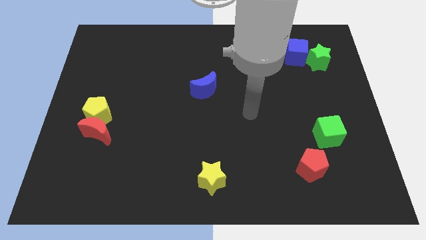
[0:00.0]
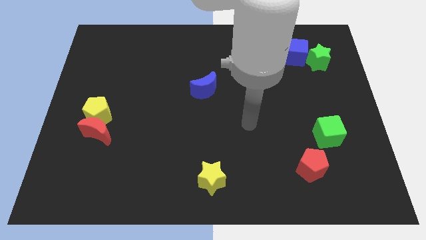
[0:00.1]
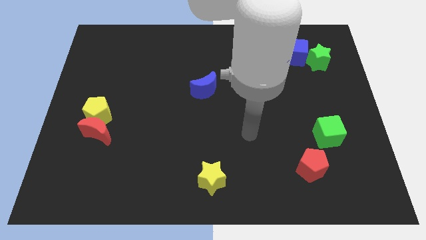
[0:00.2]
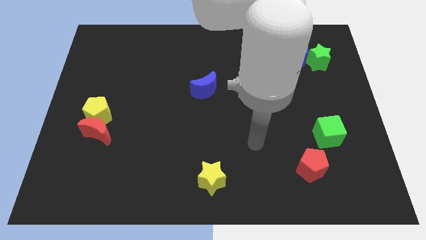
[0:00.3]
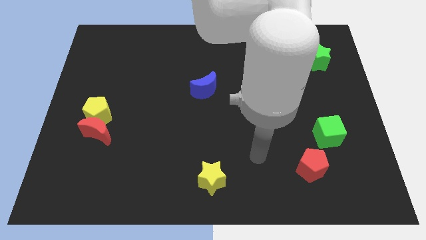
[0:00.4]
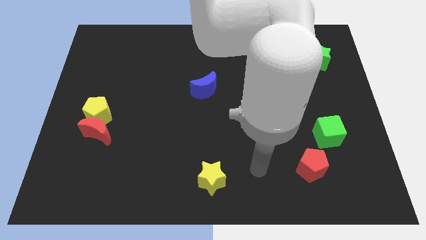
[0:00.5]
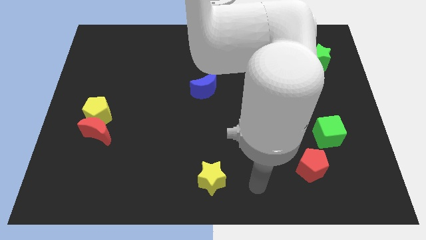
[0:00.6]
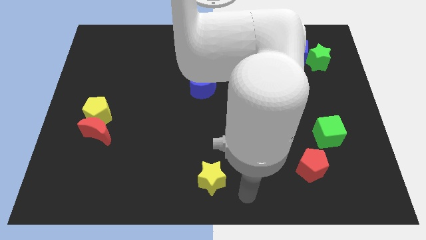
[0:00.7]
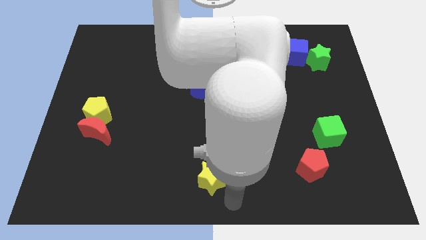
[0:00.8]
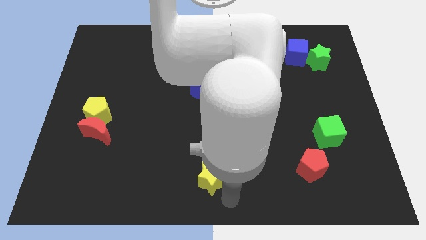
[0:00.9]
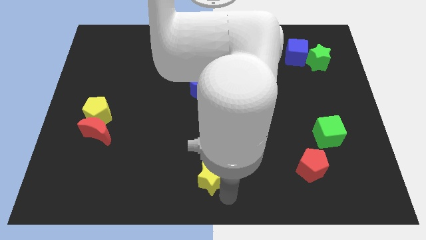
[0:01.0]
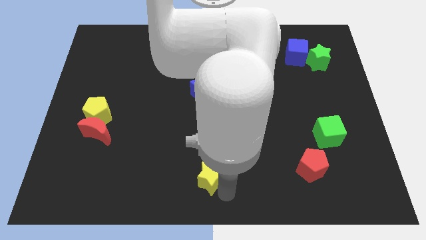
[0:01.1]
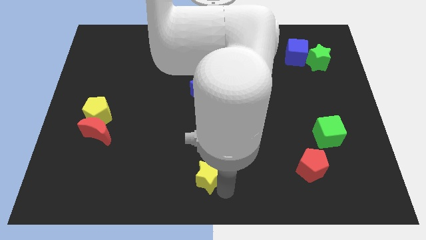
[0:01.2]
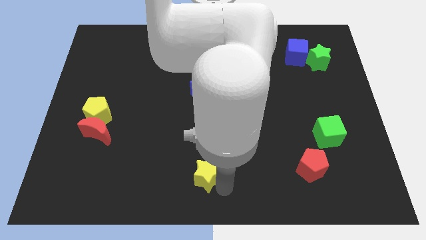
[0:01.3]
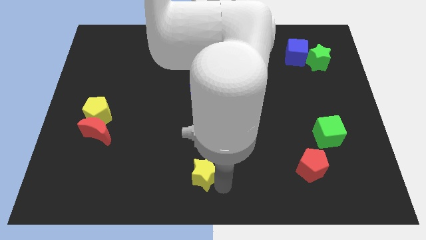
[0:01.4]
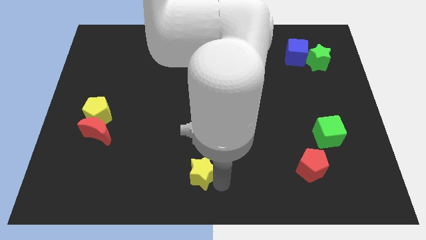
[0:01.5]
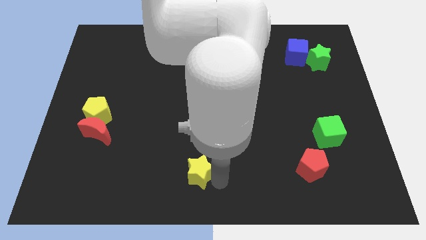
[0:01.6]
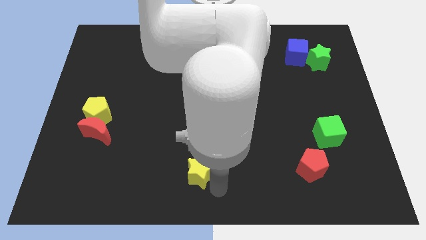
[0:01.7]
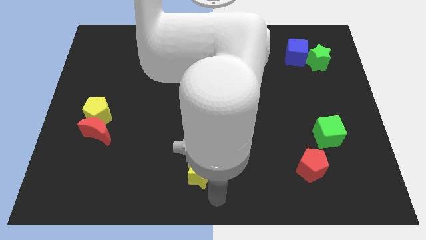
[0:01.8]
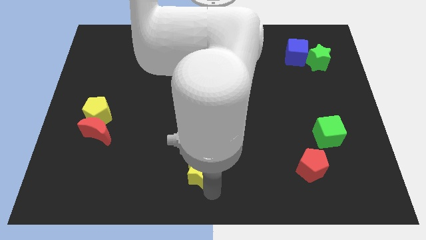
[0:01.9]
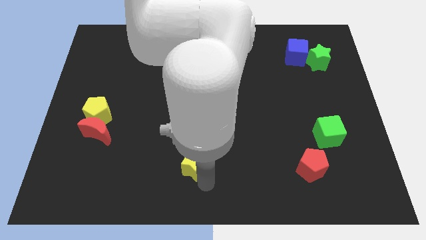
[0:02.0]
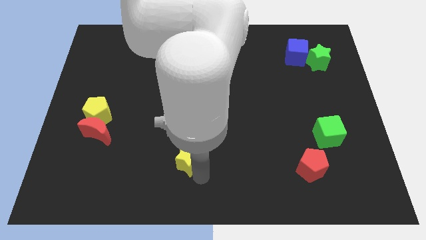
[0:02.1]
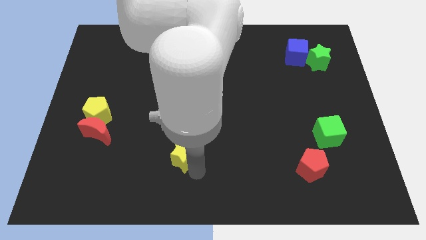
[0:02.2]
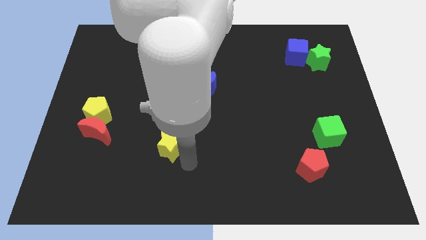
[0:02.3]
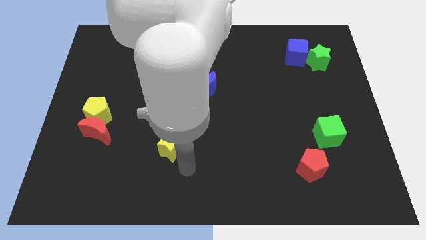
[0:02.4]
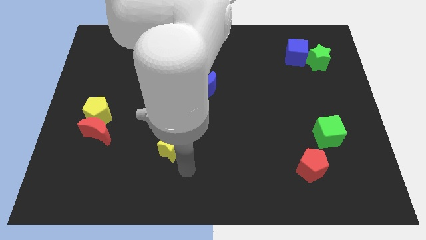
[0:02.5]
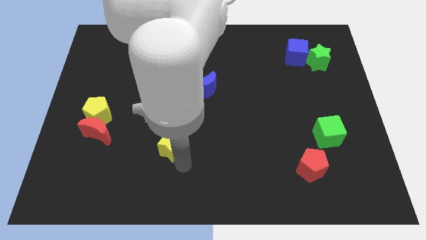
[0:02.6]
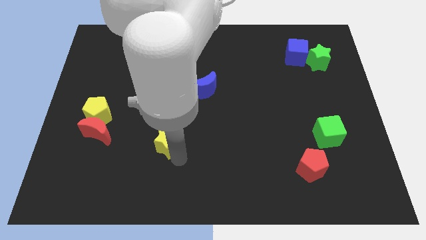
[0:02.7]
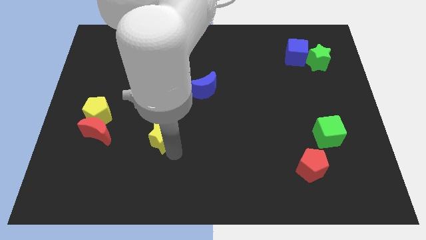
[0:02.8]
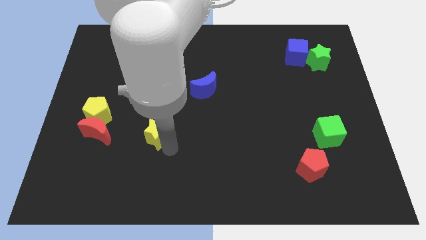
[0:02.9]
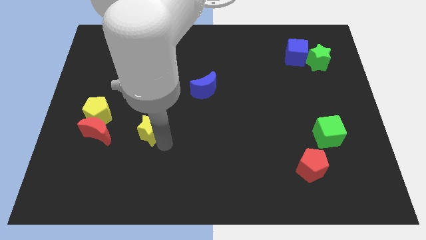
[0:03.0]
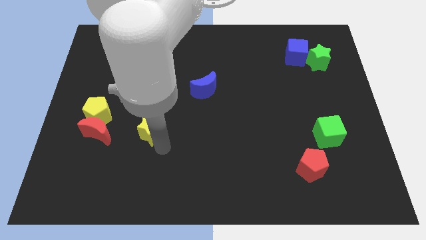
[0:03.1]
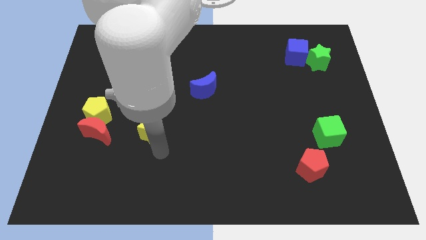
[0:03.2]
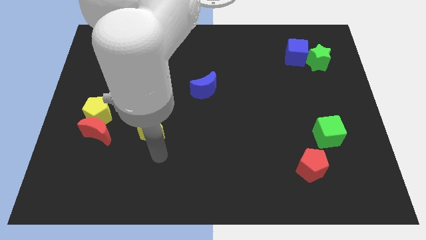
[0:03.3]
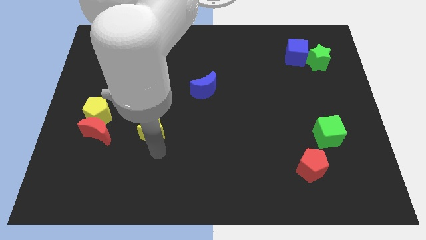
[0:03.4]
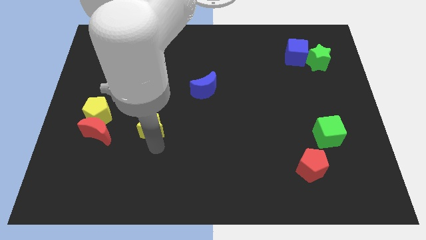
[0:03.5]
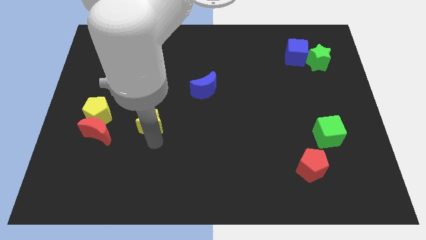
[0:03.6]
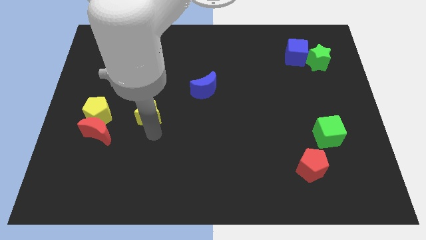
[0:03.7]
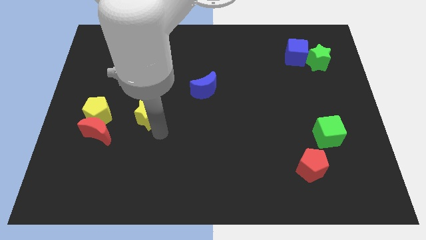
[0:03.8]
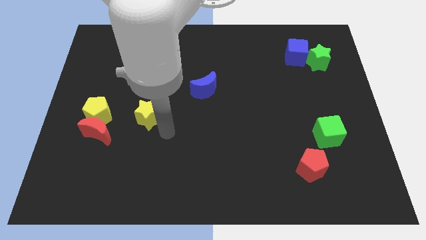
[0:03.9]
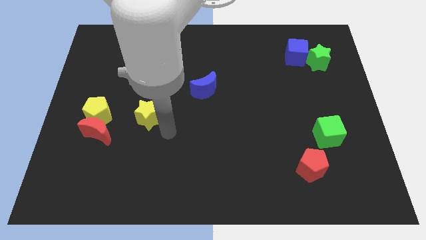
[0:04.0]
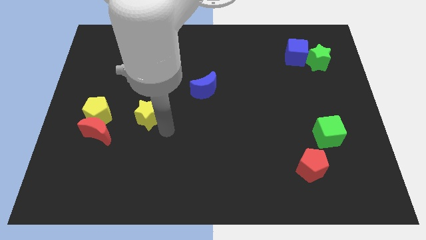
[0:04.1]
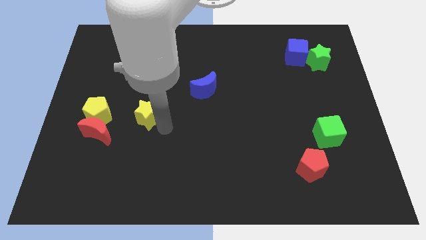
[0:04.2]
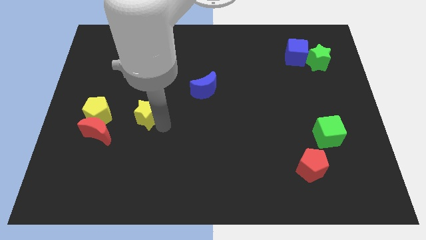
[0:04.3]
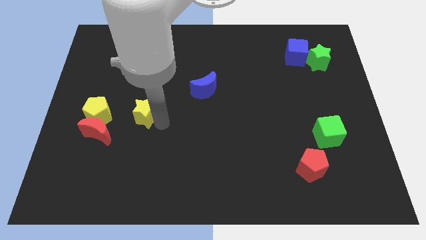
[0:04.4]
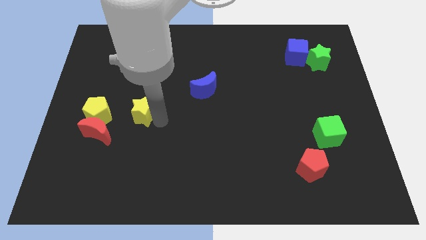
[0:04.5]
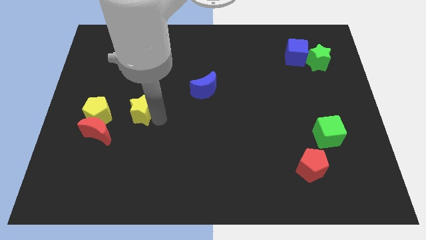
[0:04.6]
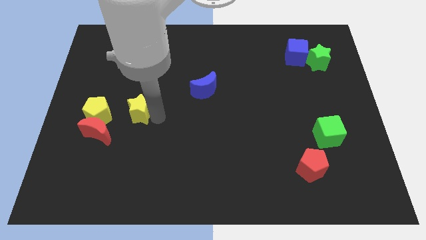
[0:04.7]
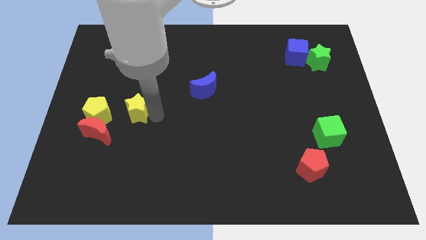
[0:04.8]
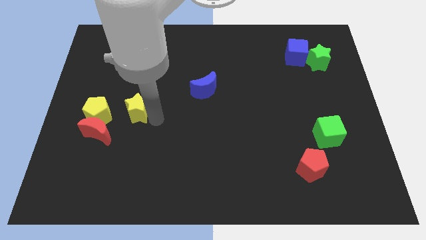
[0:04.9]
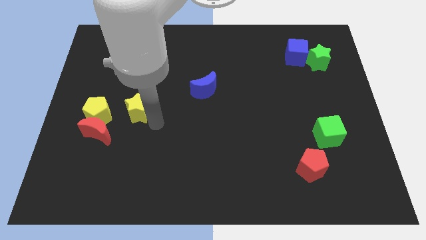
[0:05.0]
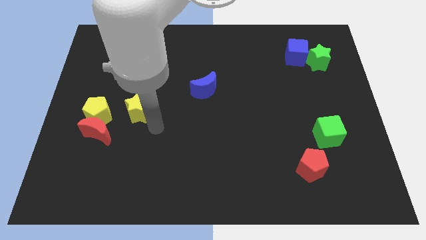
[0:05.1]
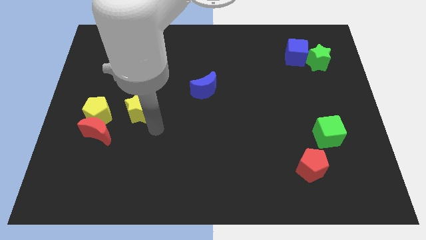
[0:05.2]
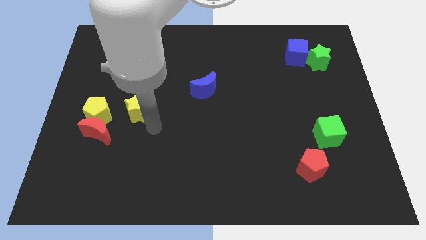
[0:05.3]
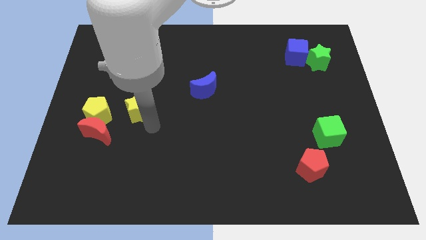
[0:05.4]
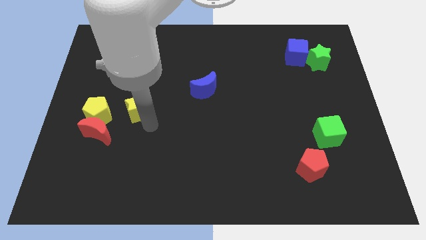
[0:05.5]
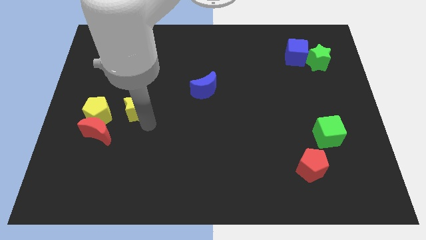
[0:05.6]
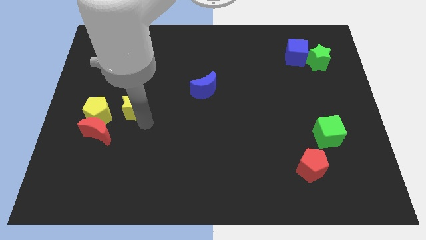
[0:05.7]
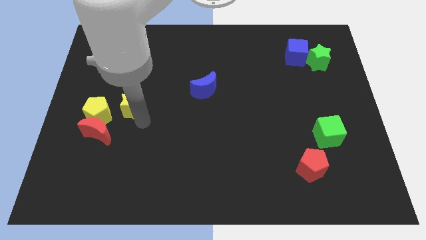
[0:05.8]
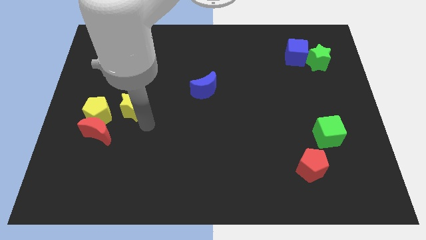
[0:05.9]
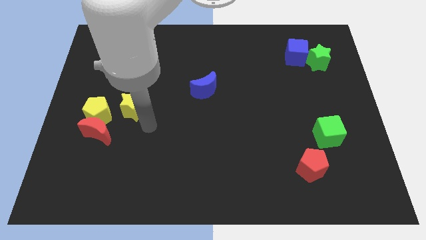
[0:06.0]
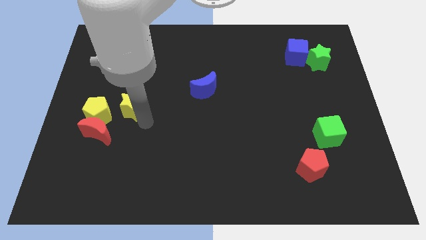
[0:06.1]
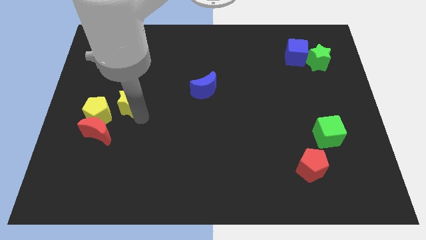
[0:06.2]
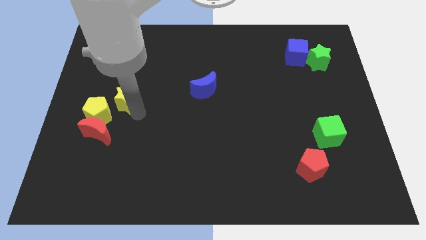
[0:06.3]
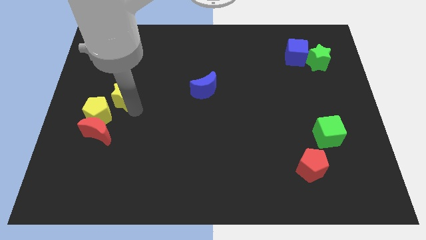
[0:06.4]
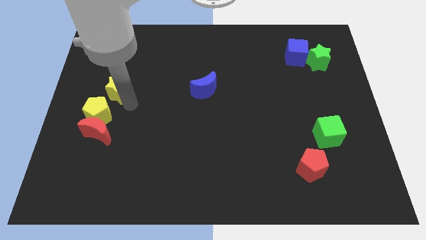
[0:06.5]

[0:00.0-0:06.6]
put the yellow star to the top side of the yellow pentagon
